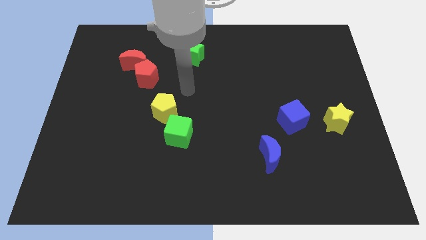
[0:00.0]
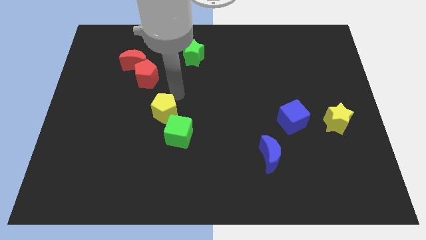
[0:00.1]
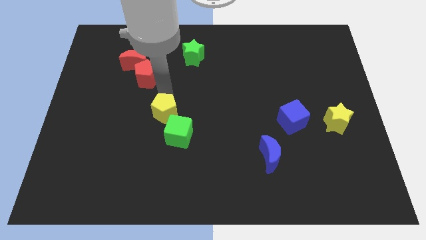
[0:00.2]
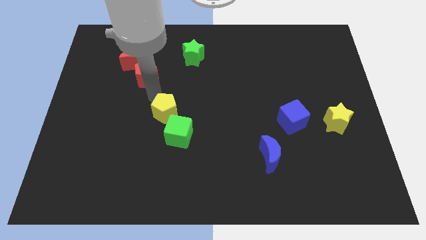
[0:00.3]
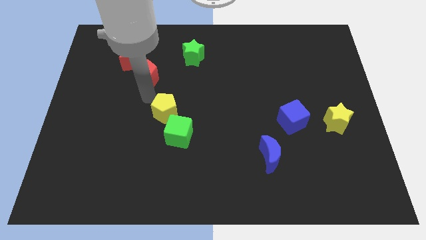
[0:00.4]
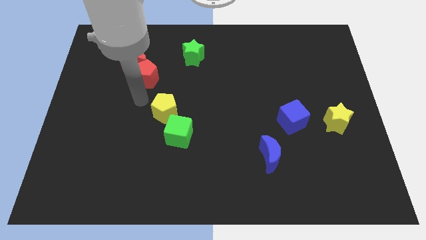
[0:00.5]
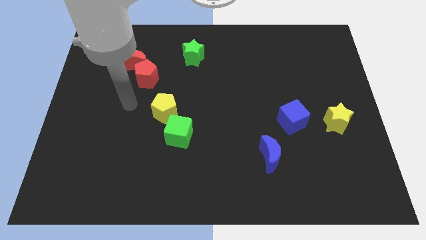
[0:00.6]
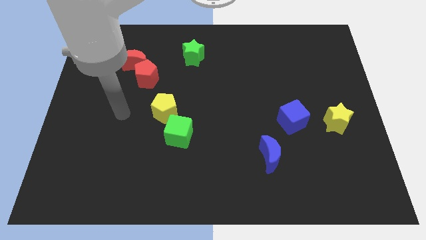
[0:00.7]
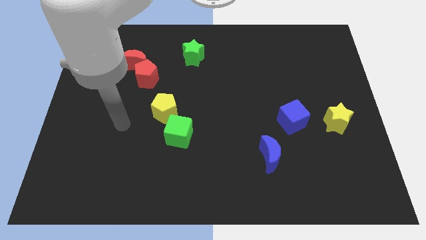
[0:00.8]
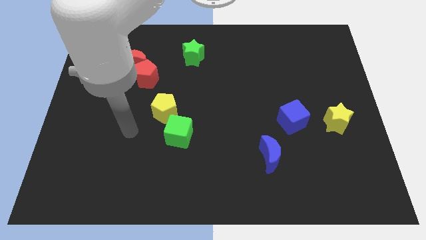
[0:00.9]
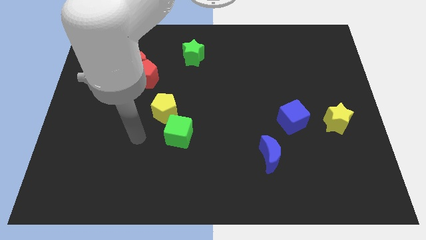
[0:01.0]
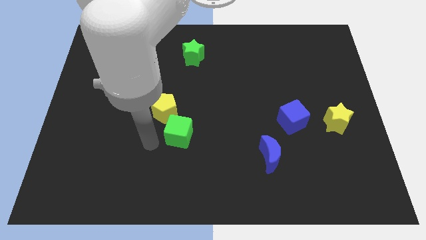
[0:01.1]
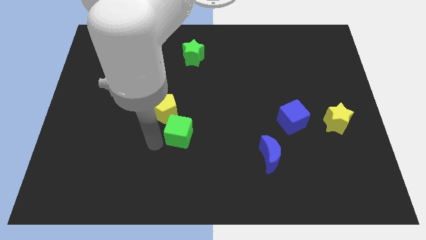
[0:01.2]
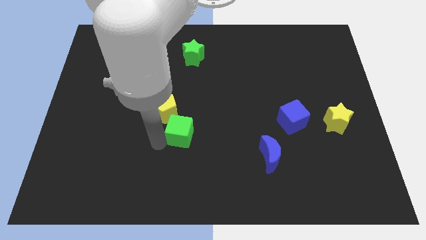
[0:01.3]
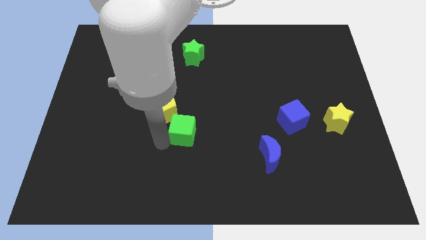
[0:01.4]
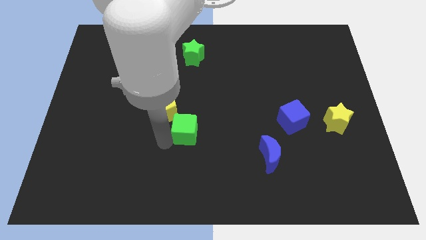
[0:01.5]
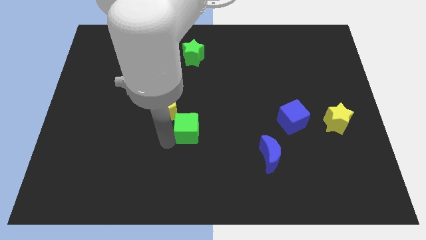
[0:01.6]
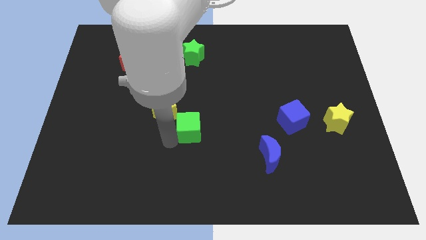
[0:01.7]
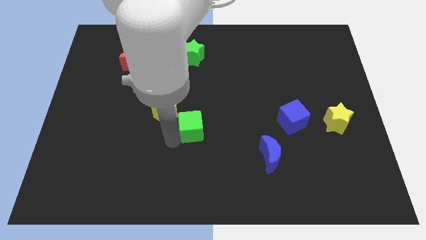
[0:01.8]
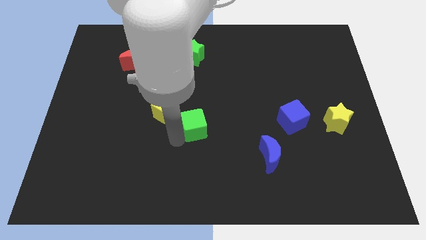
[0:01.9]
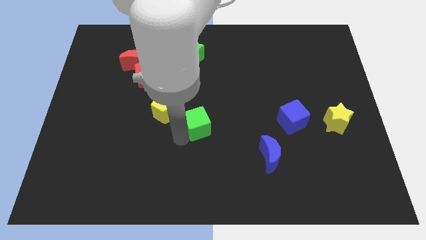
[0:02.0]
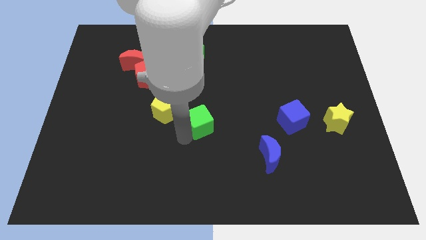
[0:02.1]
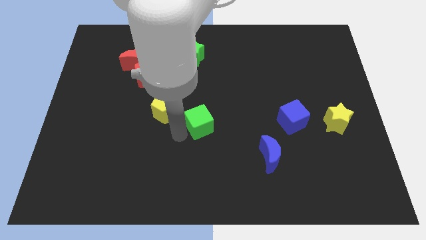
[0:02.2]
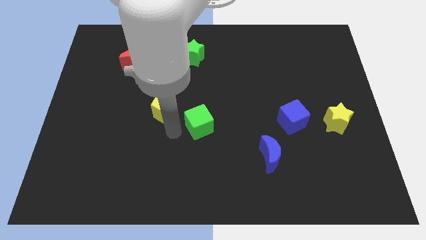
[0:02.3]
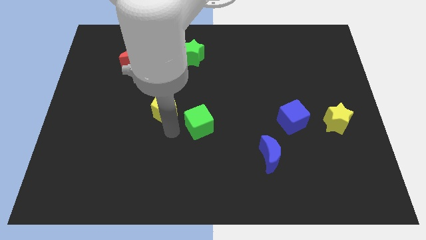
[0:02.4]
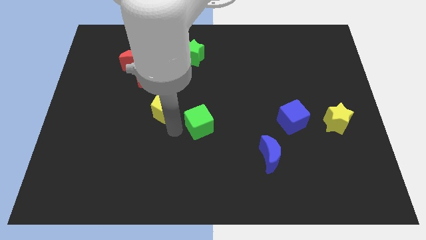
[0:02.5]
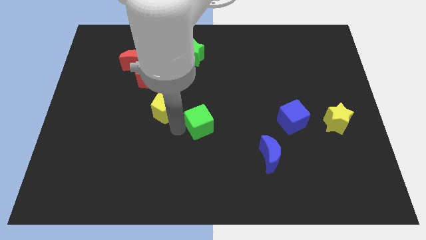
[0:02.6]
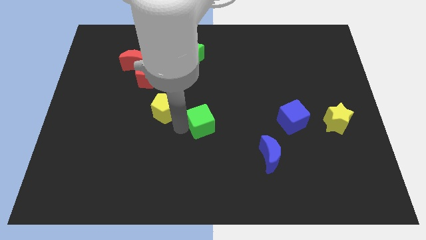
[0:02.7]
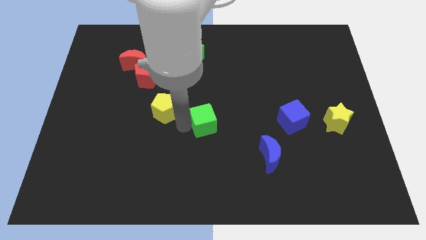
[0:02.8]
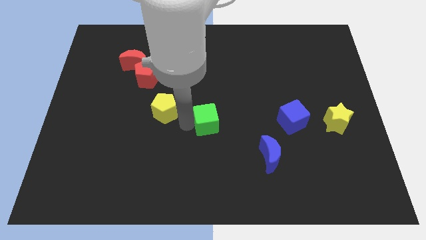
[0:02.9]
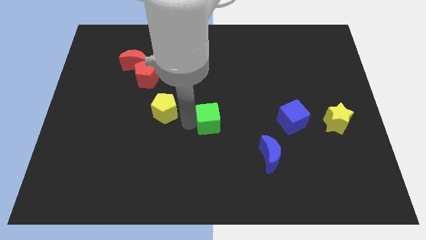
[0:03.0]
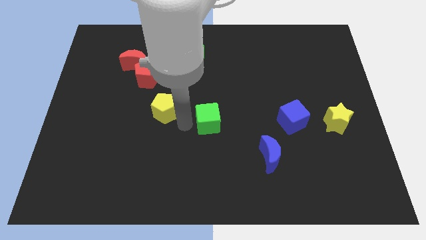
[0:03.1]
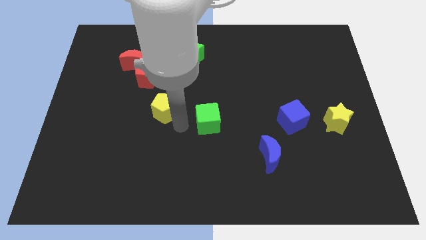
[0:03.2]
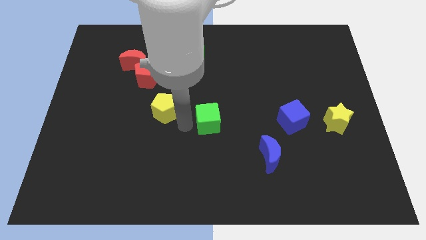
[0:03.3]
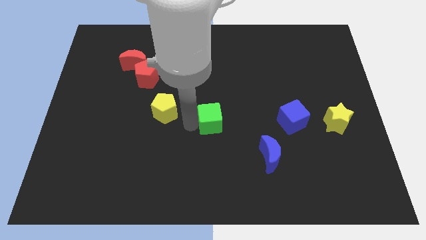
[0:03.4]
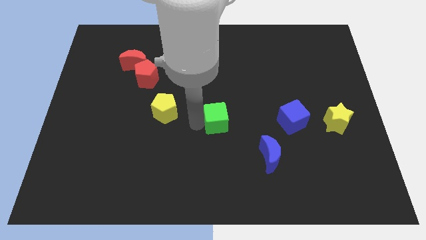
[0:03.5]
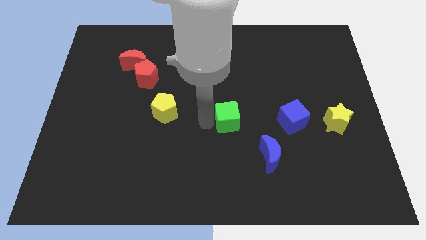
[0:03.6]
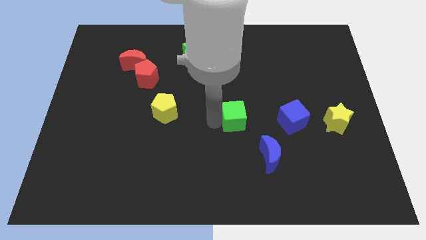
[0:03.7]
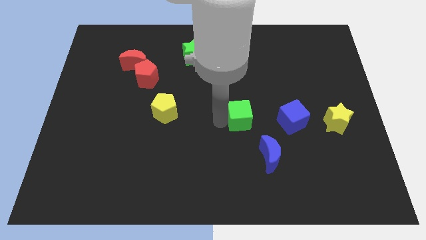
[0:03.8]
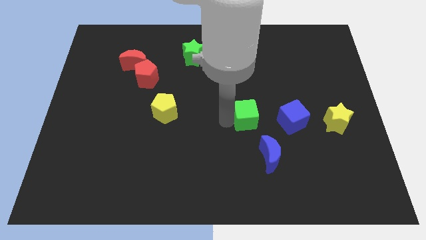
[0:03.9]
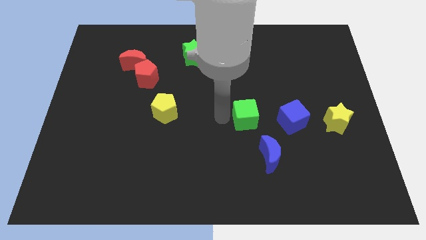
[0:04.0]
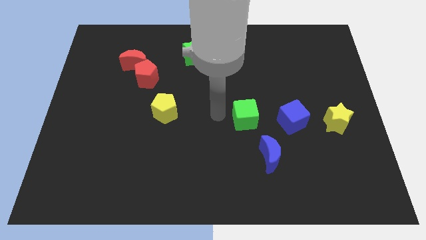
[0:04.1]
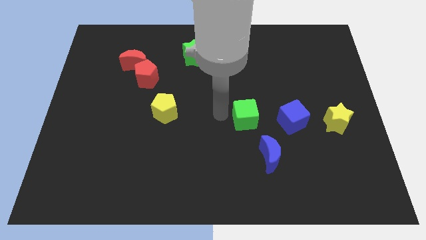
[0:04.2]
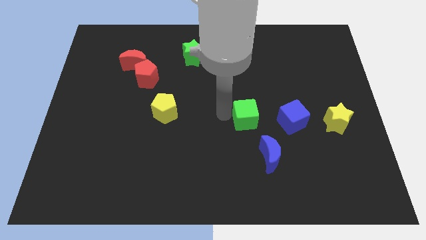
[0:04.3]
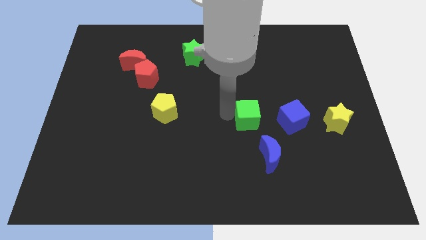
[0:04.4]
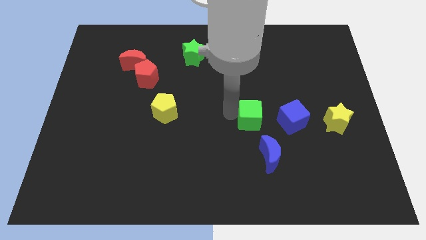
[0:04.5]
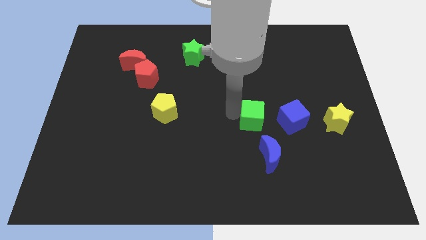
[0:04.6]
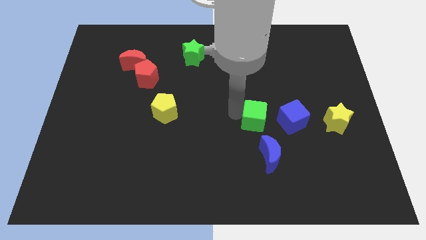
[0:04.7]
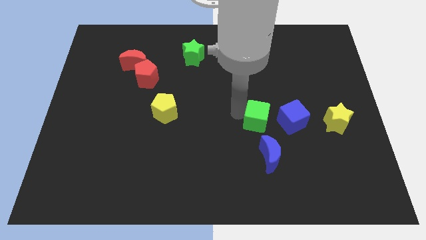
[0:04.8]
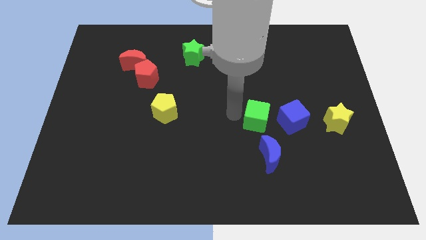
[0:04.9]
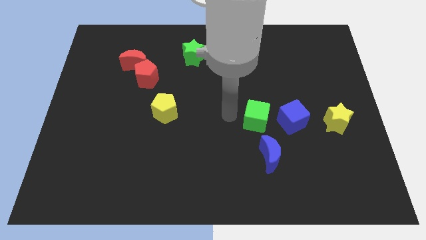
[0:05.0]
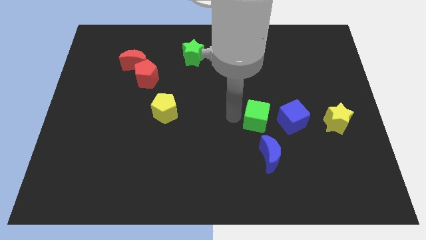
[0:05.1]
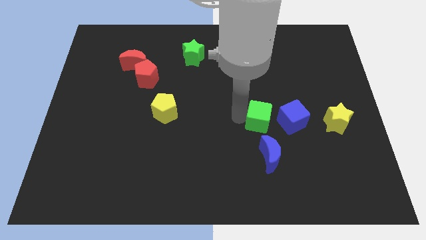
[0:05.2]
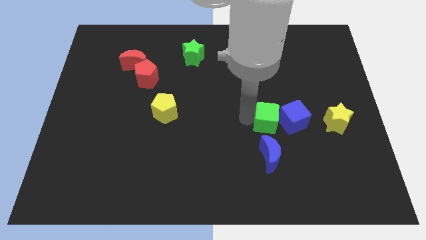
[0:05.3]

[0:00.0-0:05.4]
move the green cube just left of the yellow star

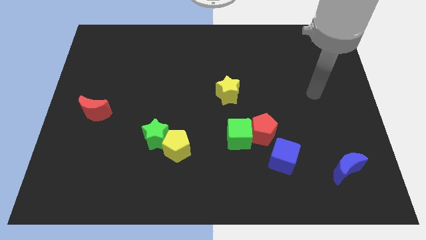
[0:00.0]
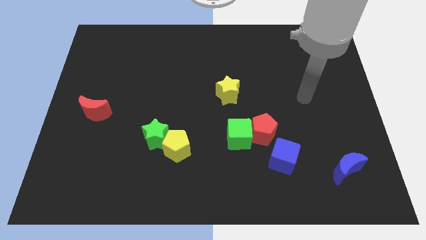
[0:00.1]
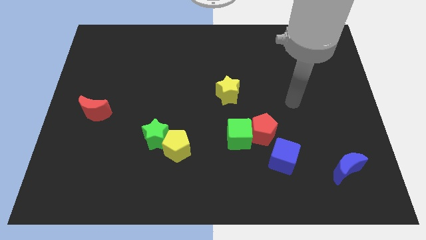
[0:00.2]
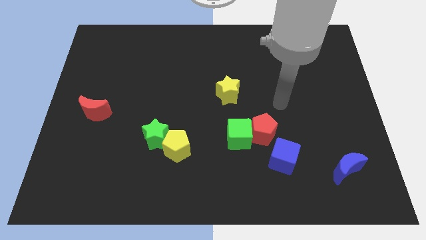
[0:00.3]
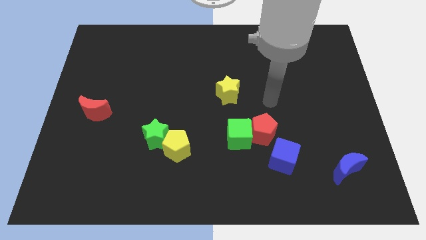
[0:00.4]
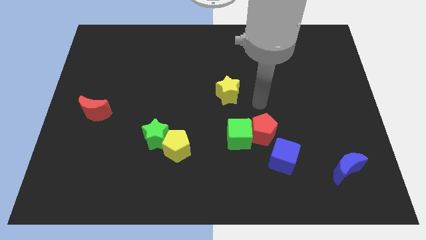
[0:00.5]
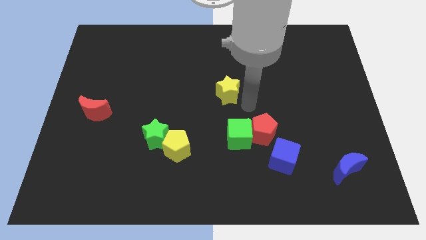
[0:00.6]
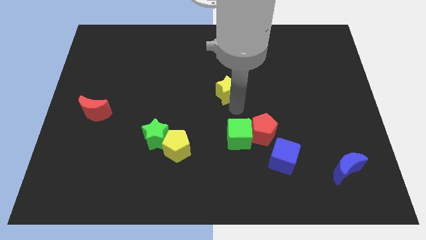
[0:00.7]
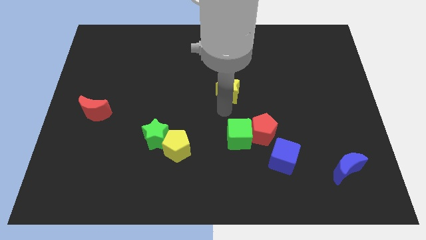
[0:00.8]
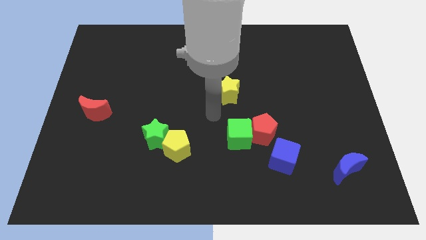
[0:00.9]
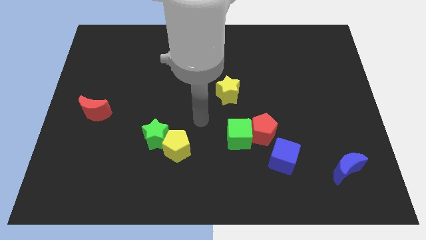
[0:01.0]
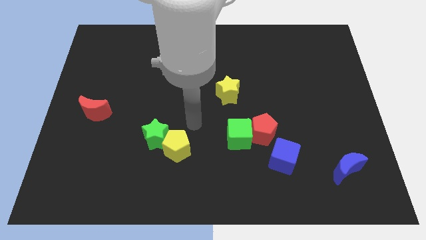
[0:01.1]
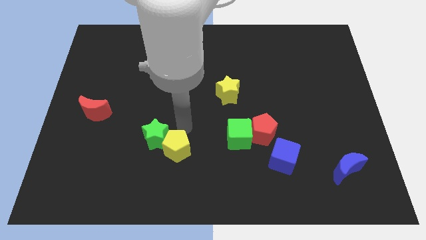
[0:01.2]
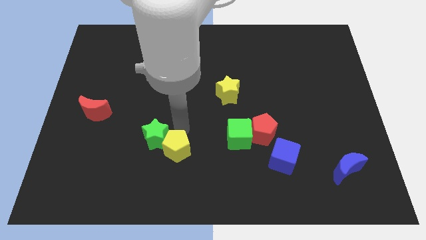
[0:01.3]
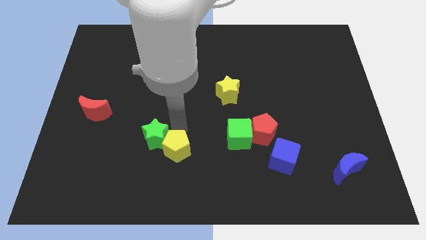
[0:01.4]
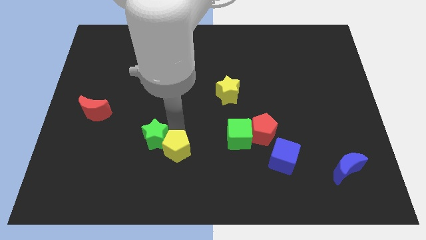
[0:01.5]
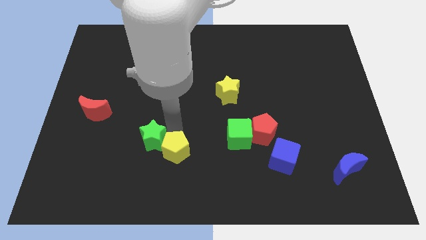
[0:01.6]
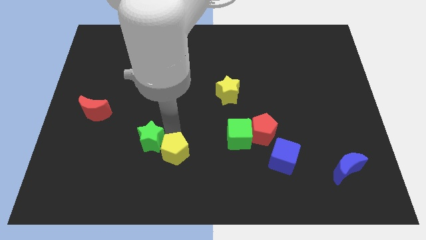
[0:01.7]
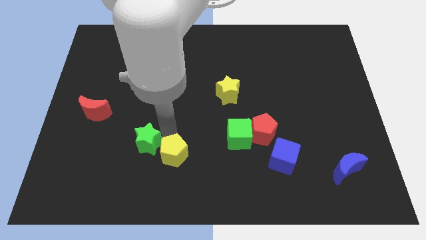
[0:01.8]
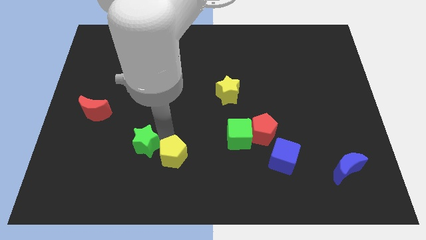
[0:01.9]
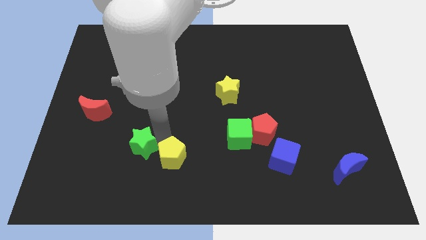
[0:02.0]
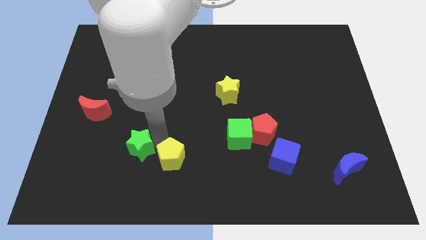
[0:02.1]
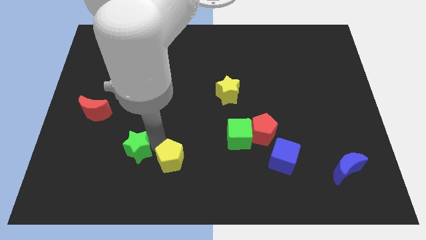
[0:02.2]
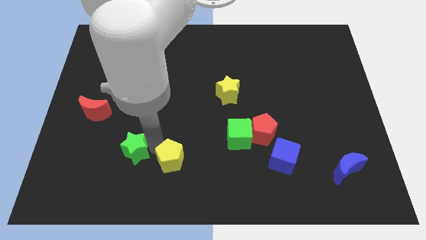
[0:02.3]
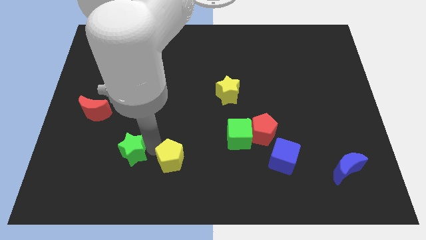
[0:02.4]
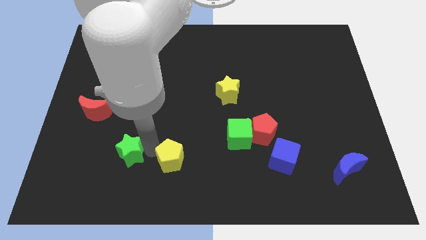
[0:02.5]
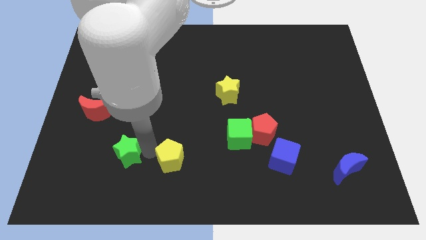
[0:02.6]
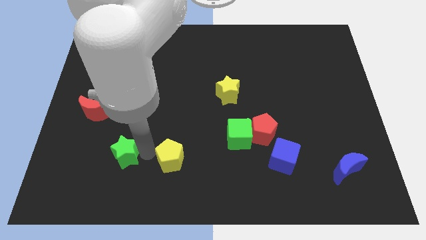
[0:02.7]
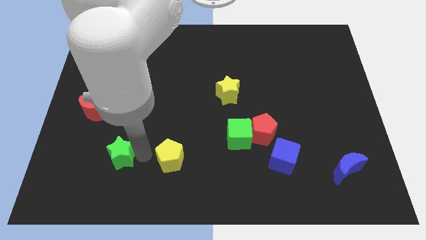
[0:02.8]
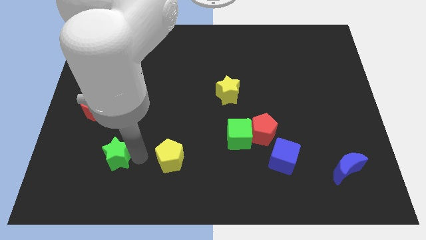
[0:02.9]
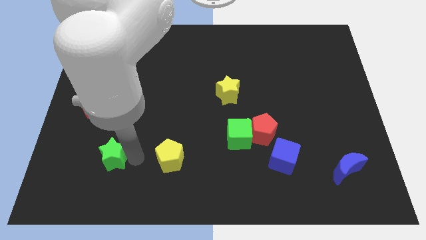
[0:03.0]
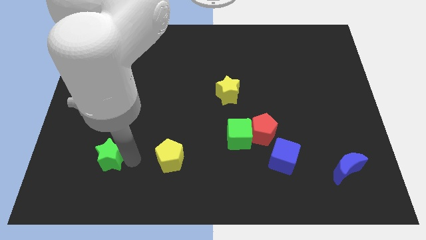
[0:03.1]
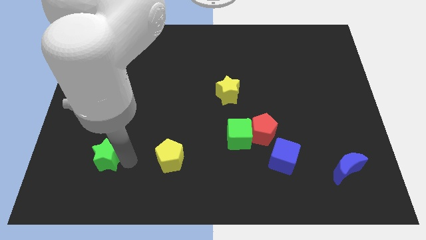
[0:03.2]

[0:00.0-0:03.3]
push the green star to the bottom of the red moon
